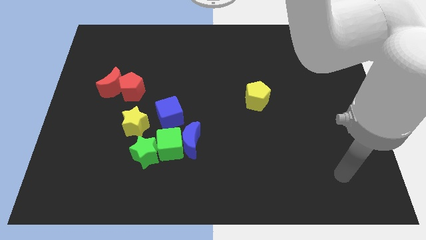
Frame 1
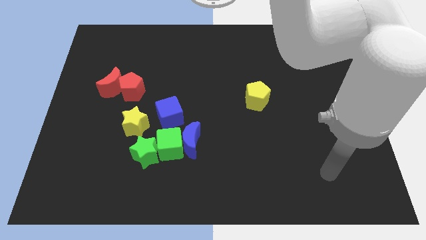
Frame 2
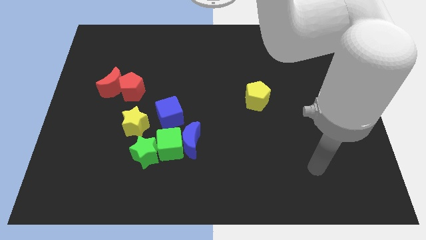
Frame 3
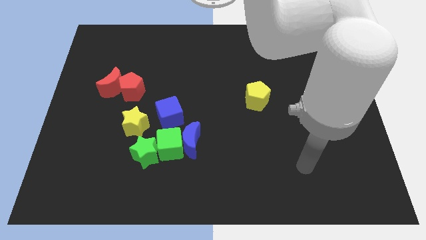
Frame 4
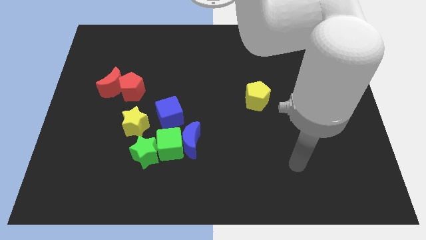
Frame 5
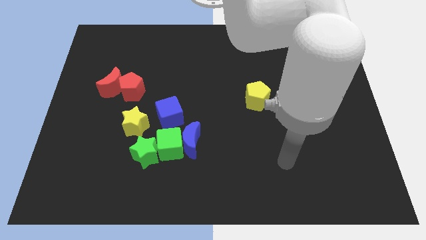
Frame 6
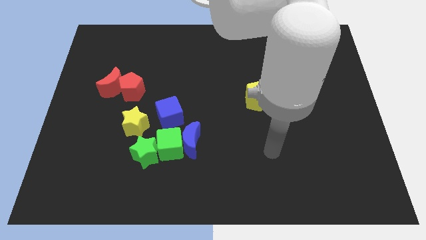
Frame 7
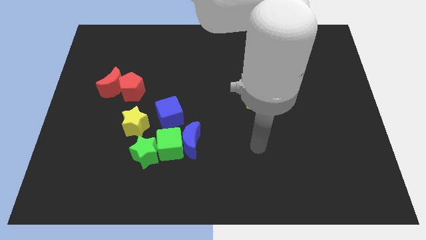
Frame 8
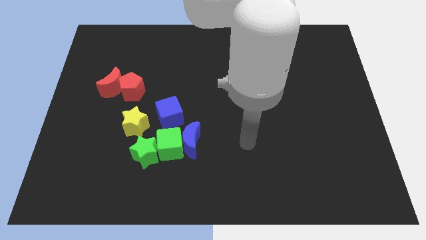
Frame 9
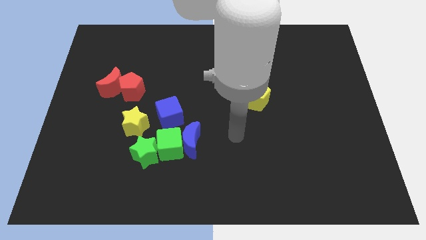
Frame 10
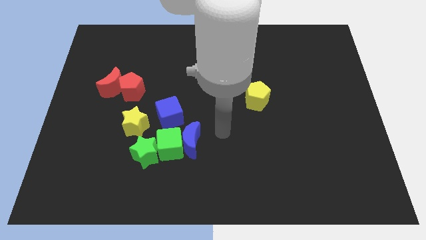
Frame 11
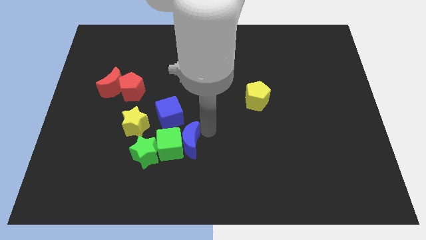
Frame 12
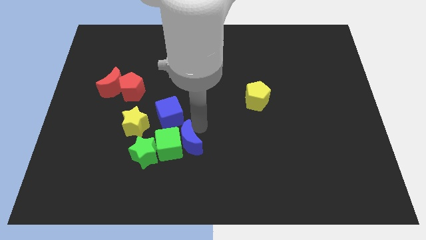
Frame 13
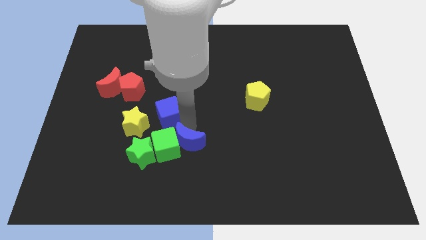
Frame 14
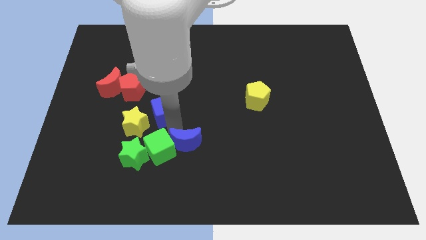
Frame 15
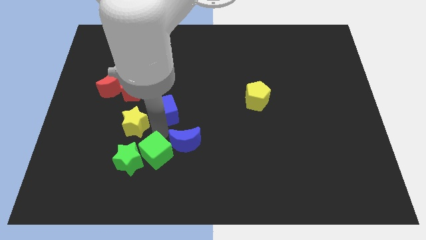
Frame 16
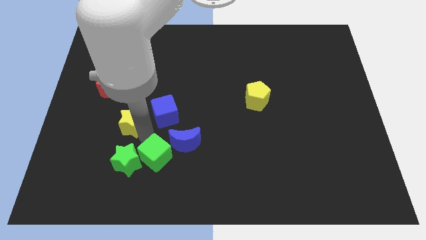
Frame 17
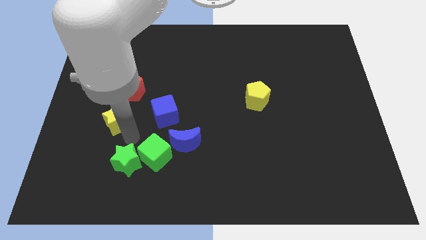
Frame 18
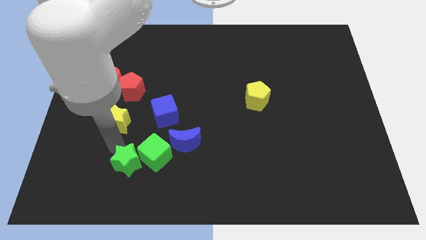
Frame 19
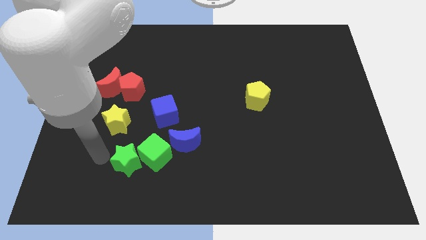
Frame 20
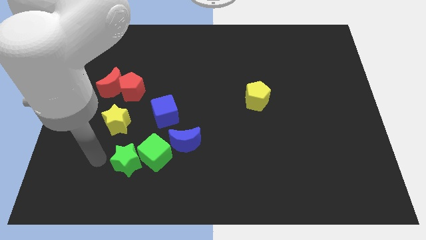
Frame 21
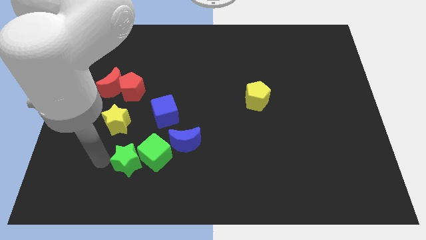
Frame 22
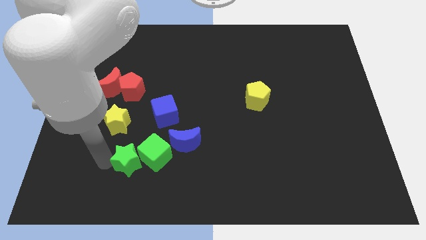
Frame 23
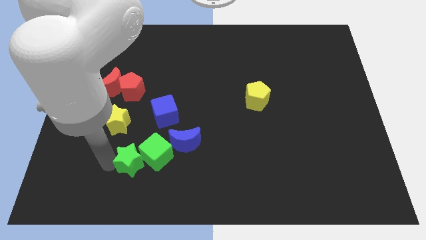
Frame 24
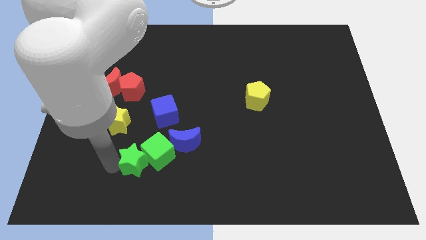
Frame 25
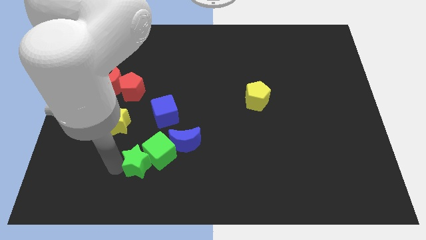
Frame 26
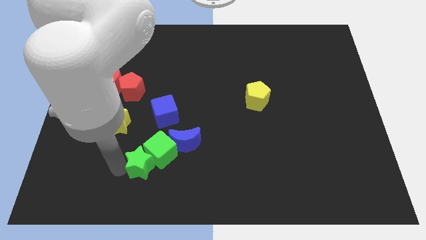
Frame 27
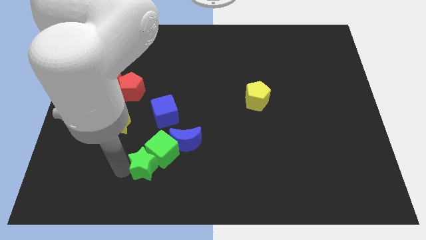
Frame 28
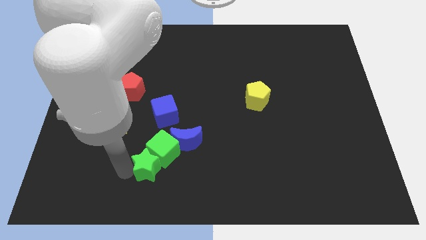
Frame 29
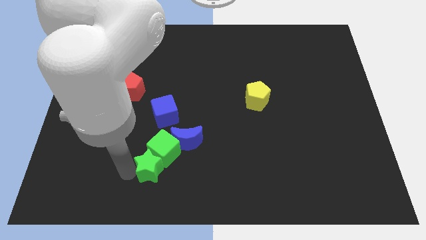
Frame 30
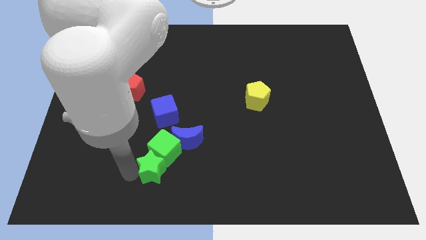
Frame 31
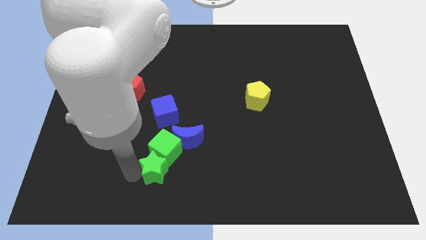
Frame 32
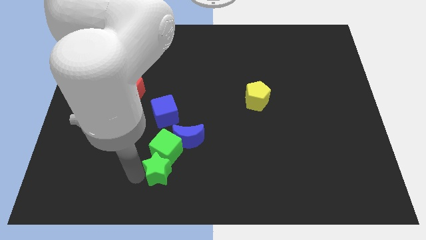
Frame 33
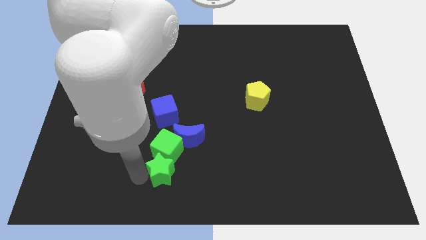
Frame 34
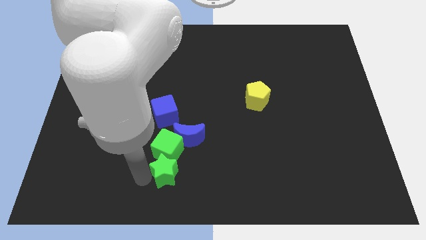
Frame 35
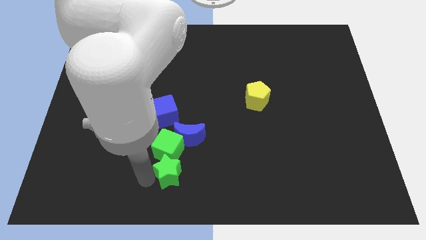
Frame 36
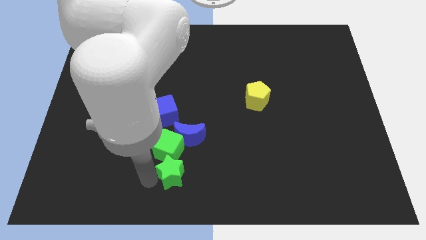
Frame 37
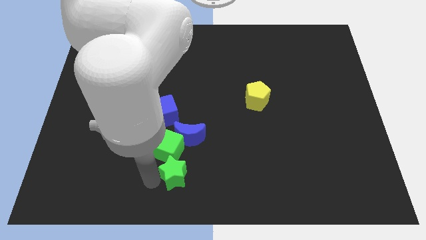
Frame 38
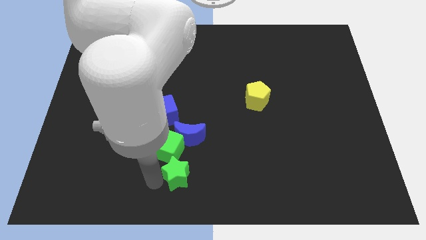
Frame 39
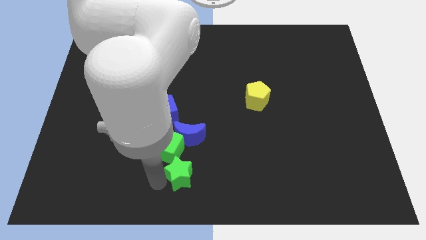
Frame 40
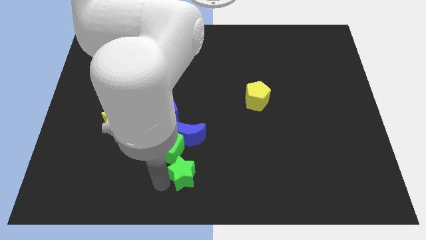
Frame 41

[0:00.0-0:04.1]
push the green star a bit to the right

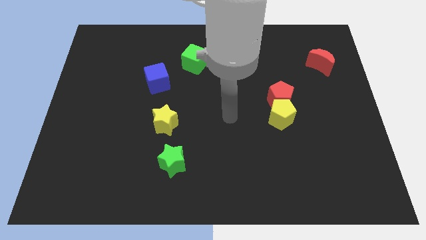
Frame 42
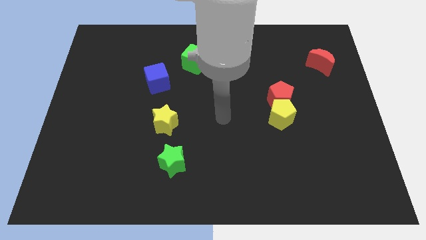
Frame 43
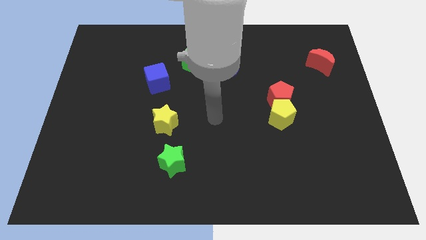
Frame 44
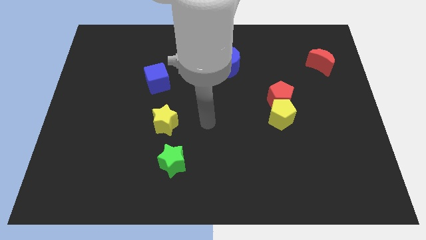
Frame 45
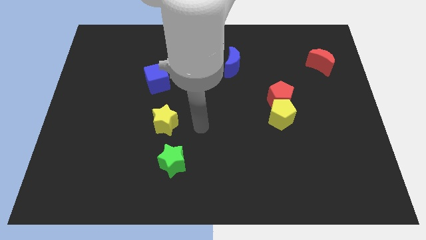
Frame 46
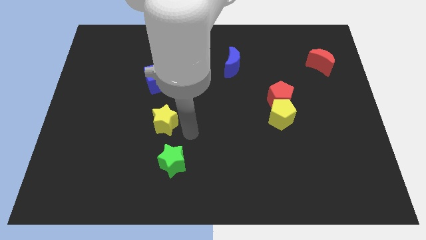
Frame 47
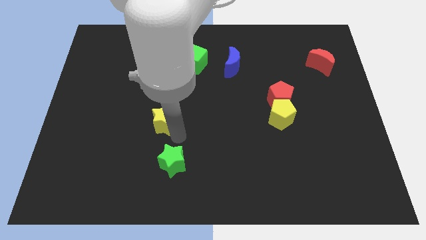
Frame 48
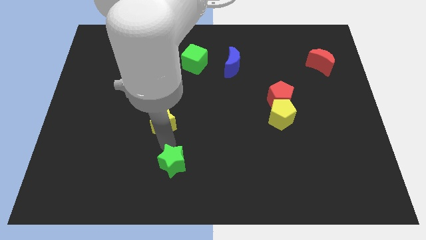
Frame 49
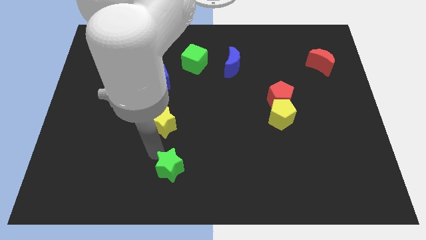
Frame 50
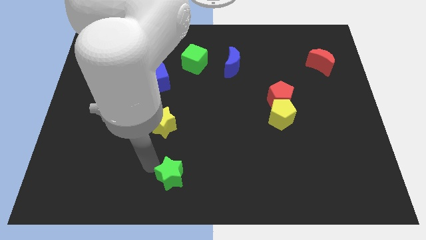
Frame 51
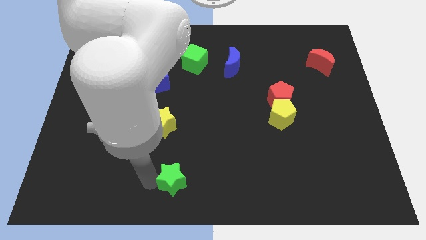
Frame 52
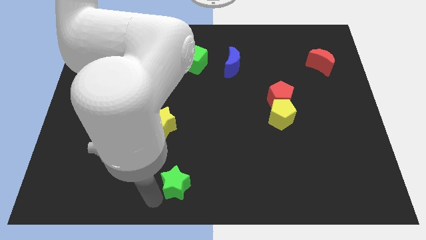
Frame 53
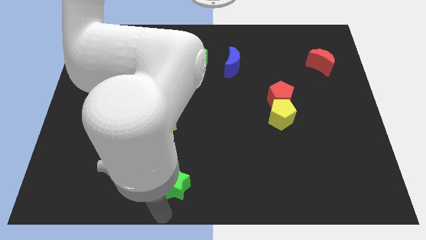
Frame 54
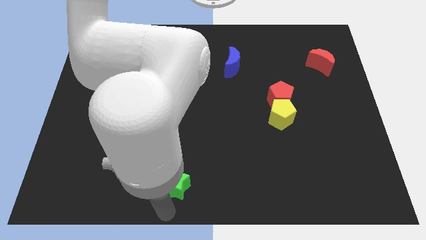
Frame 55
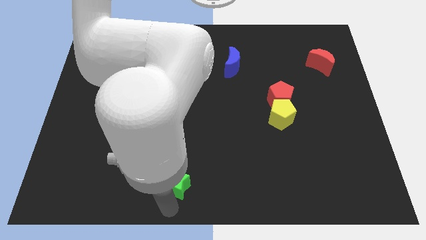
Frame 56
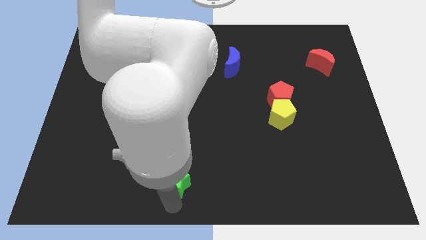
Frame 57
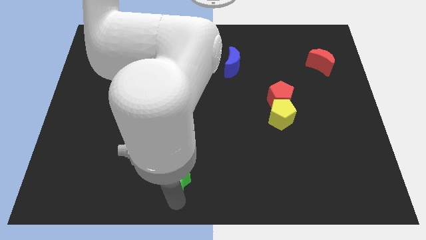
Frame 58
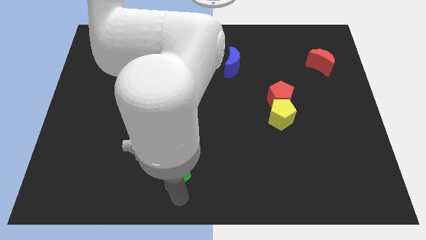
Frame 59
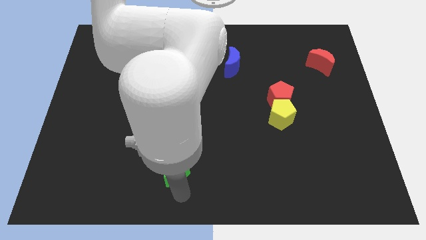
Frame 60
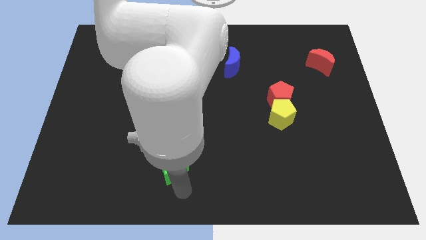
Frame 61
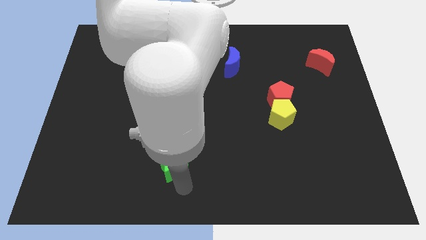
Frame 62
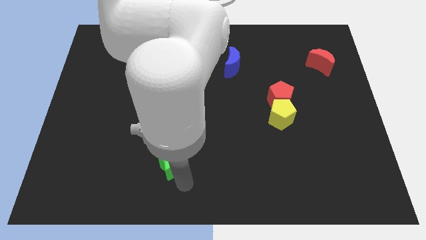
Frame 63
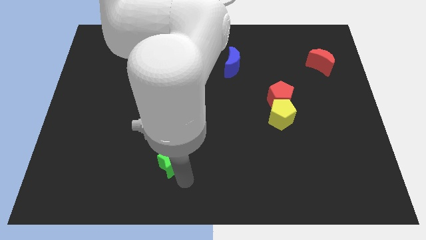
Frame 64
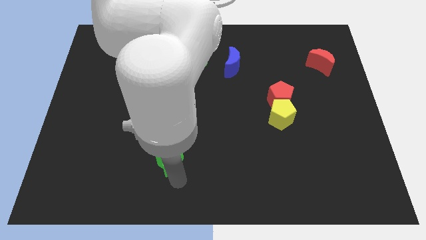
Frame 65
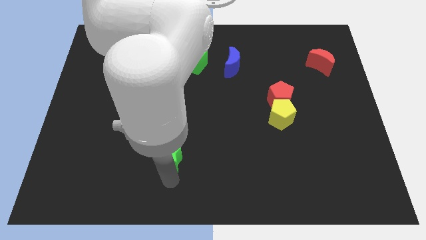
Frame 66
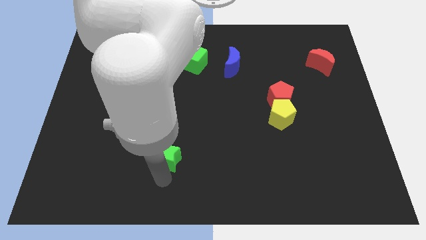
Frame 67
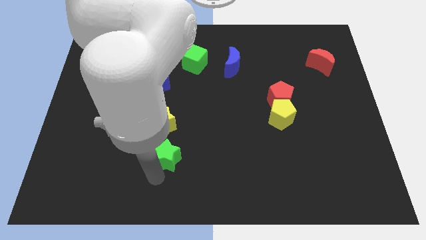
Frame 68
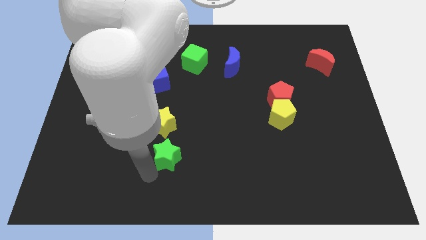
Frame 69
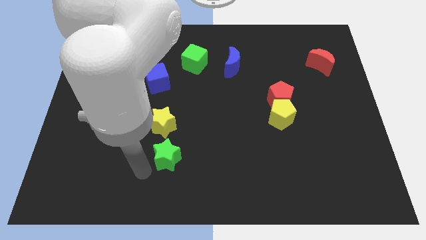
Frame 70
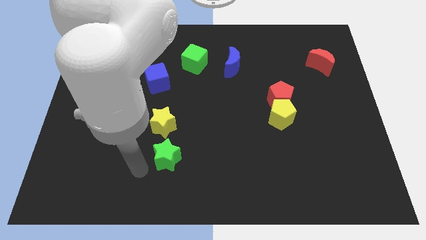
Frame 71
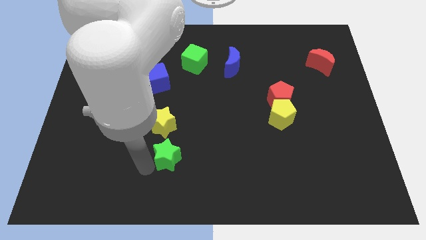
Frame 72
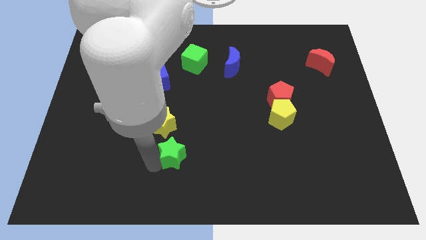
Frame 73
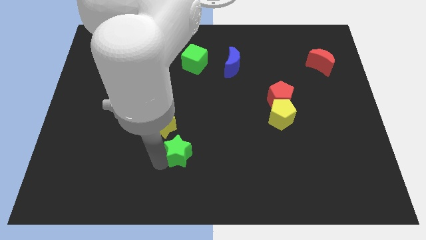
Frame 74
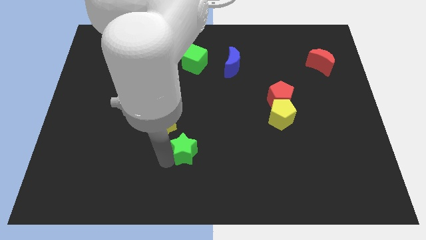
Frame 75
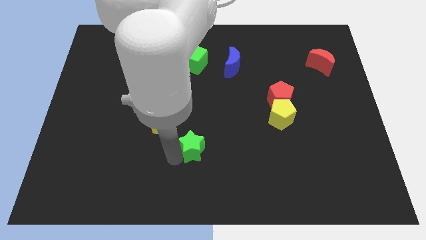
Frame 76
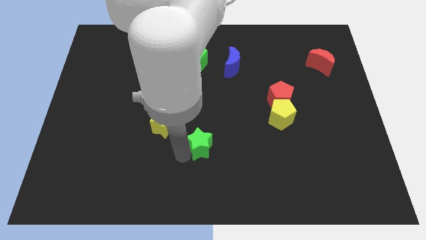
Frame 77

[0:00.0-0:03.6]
slightly move the green star upwards and to the right diagonally

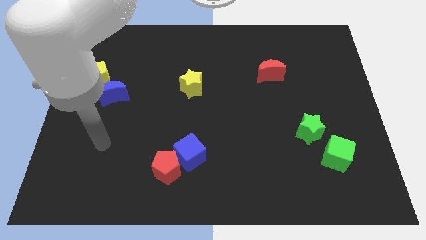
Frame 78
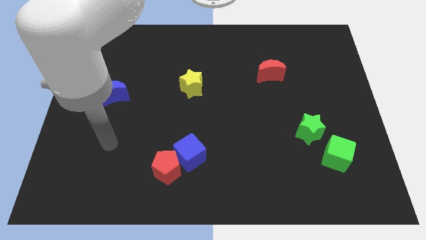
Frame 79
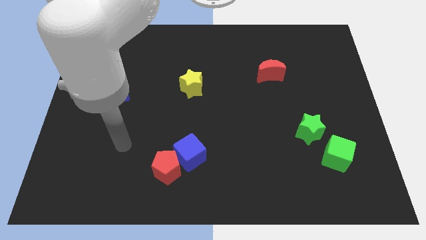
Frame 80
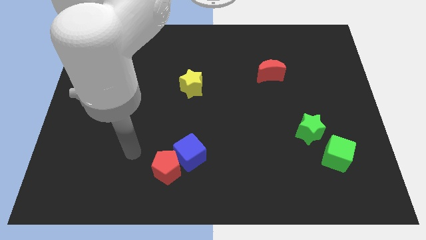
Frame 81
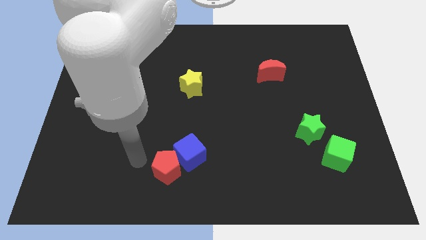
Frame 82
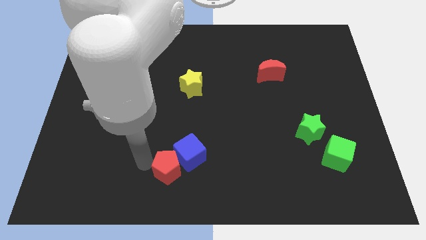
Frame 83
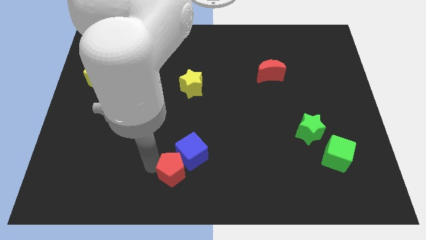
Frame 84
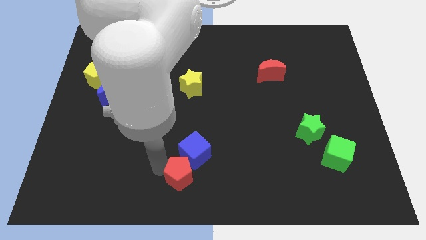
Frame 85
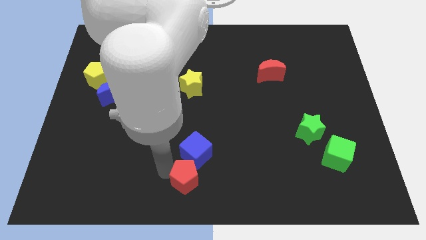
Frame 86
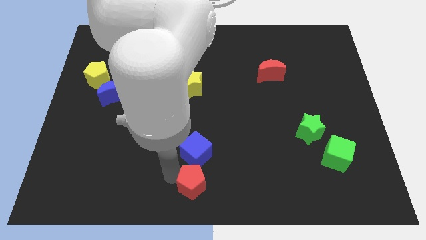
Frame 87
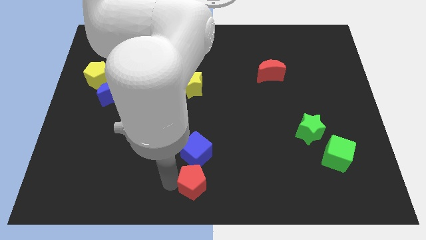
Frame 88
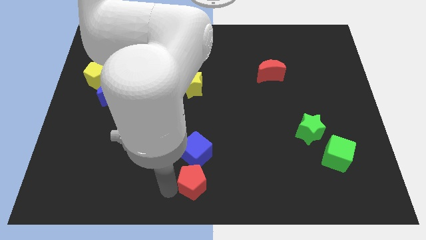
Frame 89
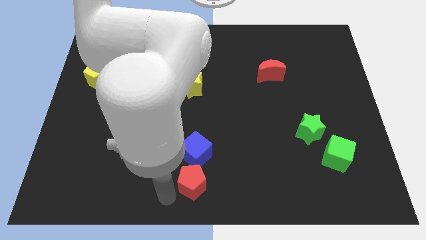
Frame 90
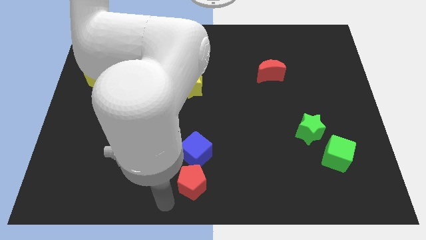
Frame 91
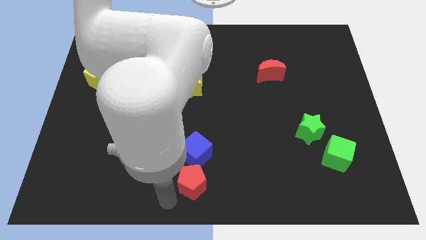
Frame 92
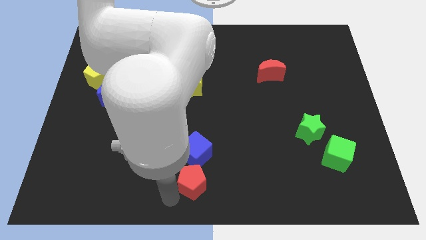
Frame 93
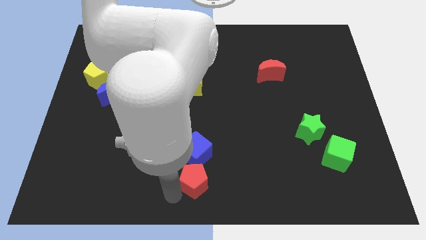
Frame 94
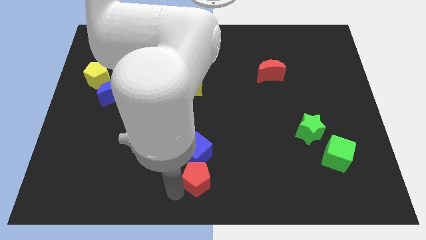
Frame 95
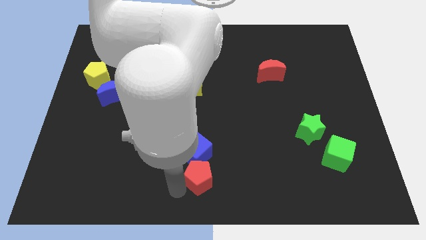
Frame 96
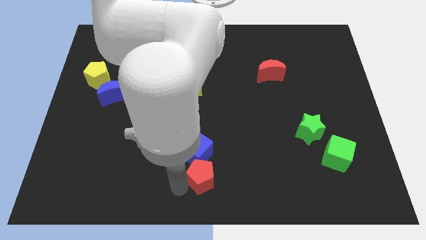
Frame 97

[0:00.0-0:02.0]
push the red pentagon a little right
